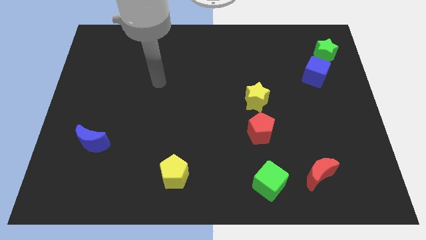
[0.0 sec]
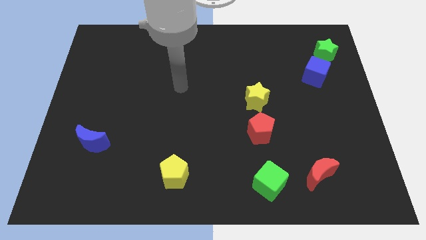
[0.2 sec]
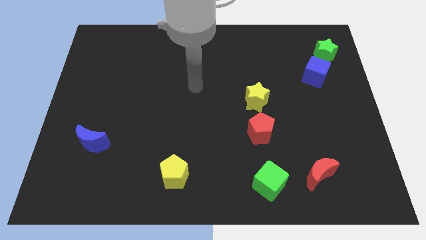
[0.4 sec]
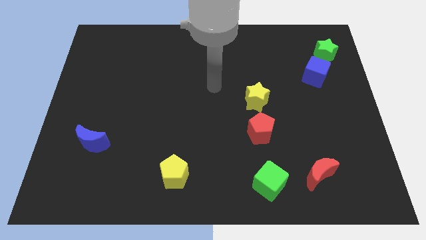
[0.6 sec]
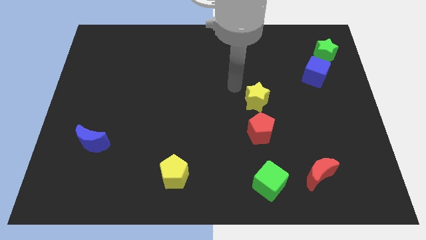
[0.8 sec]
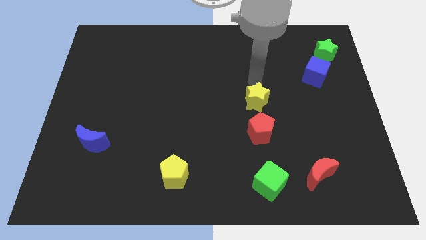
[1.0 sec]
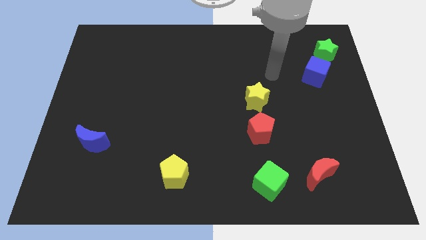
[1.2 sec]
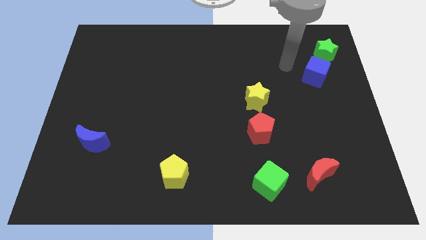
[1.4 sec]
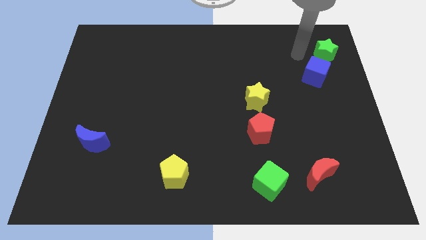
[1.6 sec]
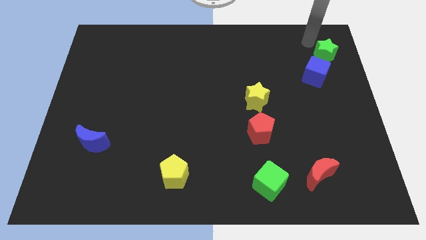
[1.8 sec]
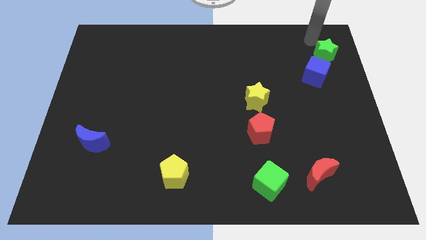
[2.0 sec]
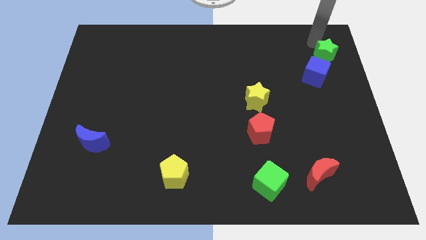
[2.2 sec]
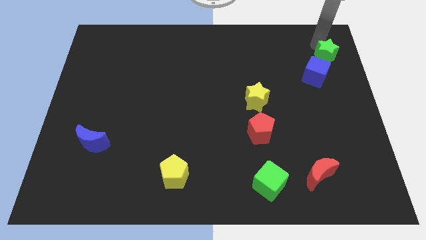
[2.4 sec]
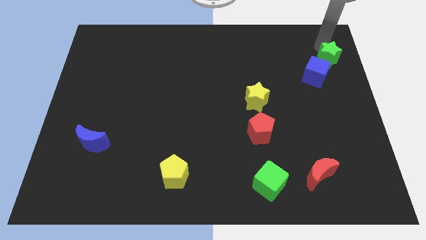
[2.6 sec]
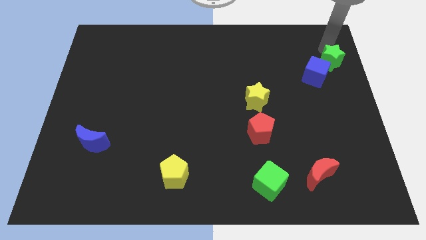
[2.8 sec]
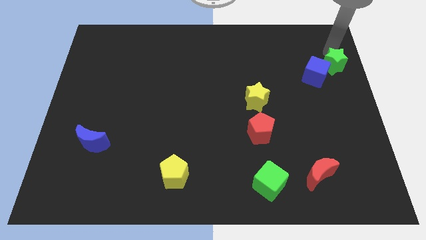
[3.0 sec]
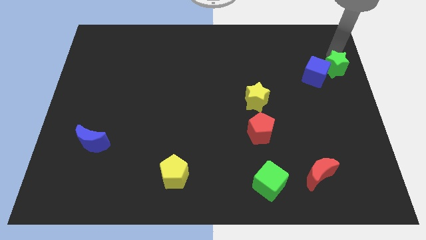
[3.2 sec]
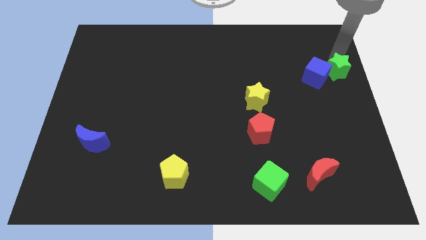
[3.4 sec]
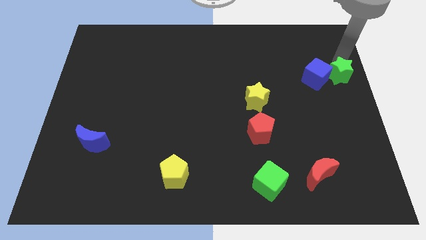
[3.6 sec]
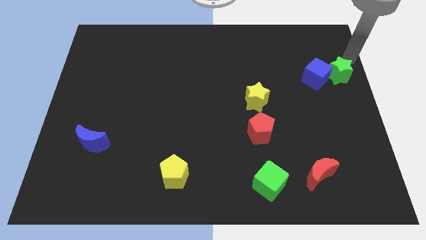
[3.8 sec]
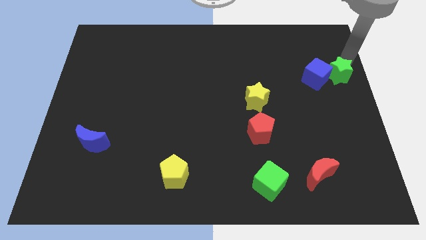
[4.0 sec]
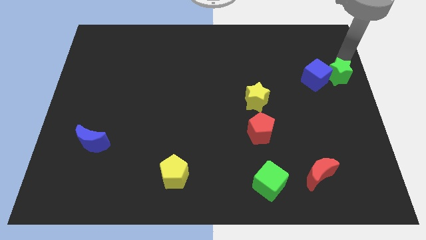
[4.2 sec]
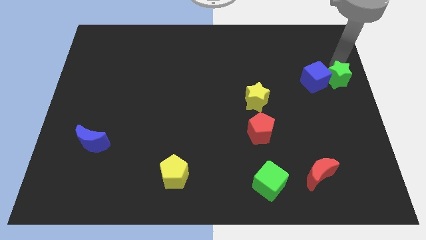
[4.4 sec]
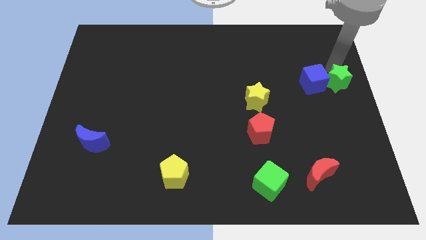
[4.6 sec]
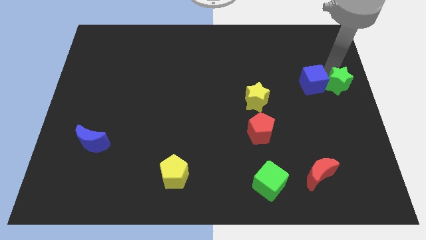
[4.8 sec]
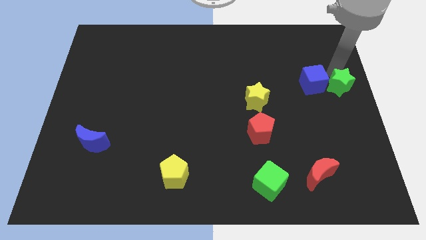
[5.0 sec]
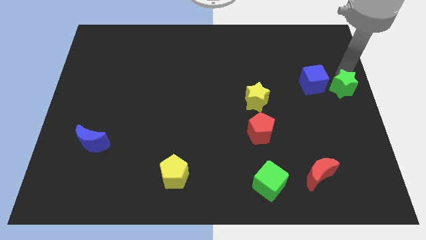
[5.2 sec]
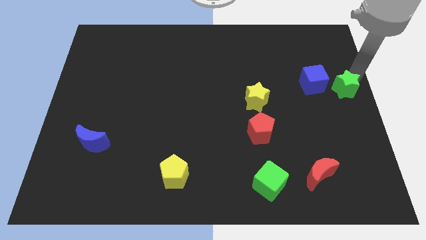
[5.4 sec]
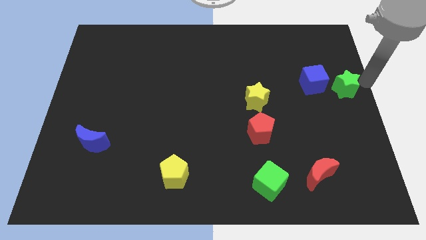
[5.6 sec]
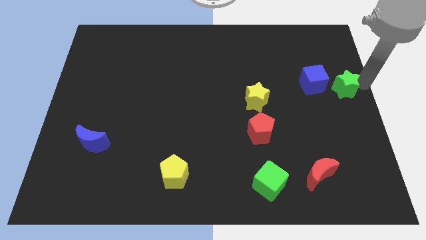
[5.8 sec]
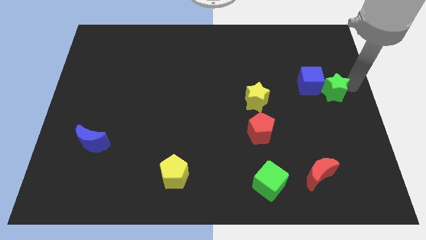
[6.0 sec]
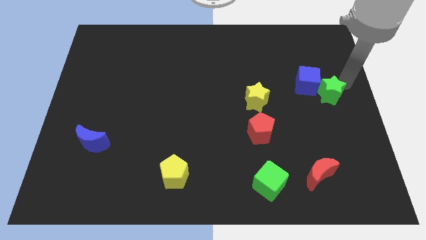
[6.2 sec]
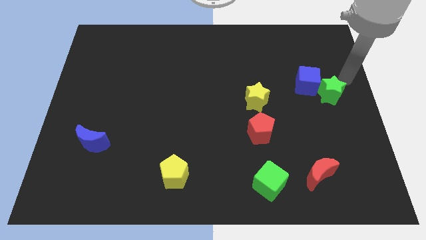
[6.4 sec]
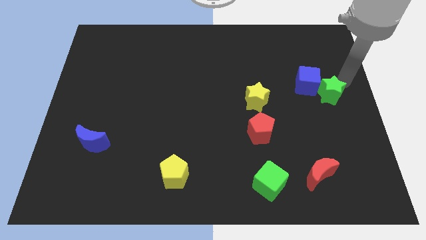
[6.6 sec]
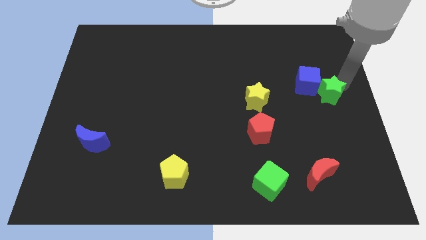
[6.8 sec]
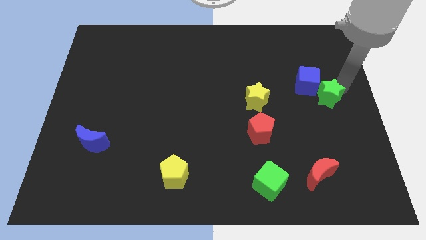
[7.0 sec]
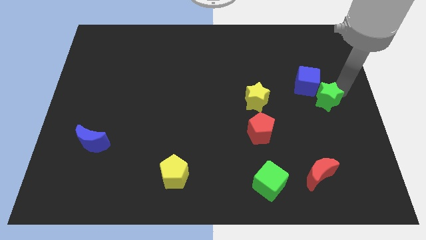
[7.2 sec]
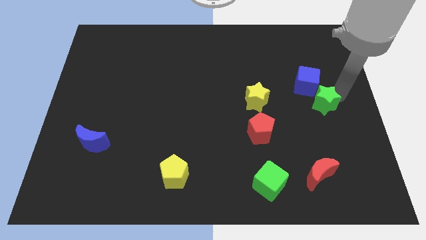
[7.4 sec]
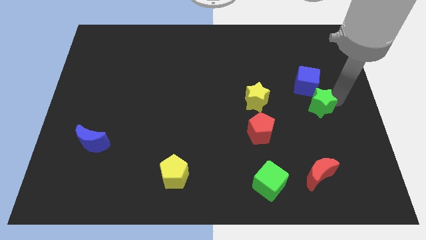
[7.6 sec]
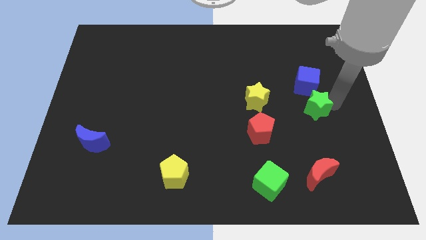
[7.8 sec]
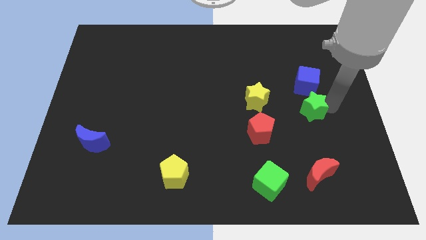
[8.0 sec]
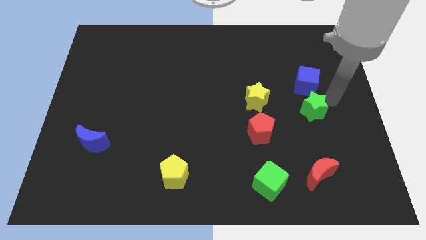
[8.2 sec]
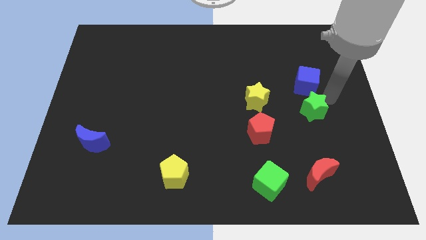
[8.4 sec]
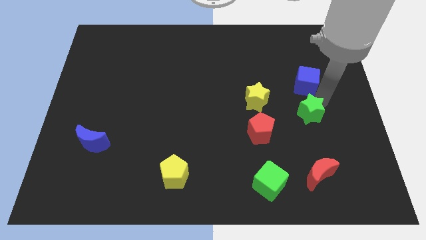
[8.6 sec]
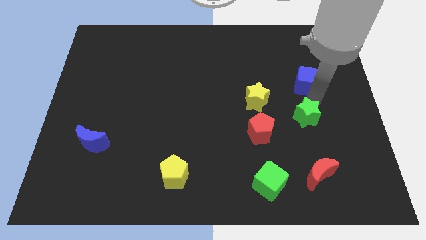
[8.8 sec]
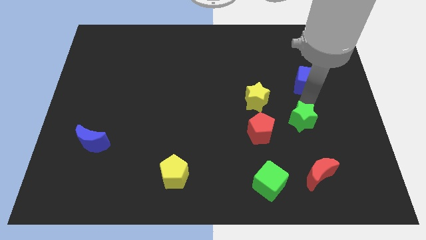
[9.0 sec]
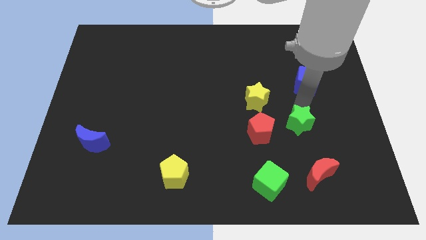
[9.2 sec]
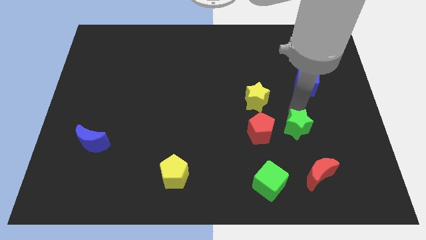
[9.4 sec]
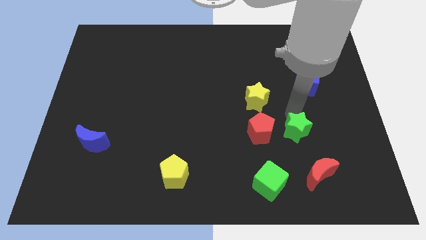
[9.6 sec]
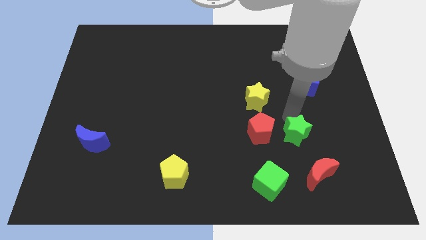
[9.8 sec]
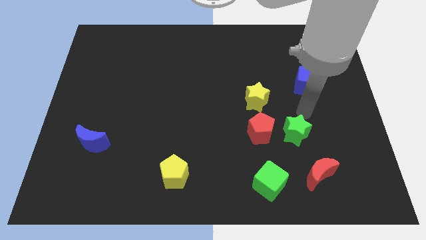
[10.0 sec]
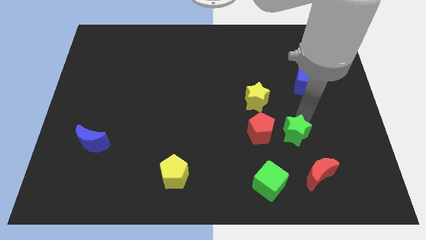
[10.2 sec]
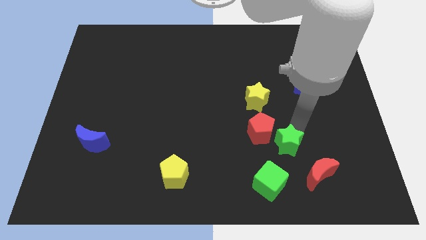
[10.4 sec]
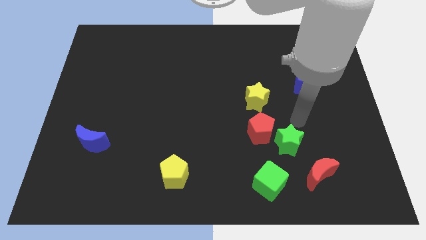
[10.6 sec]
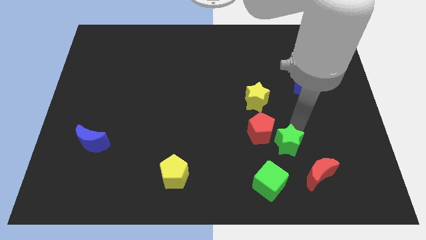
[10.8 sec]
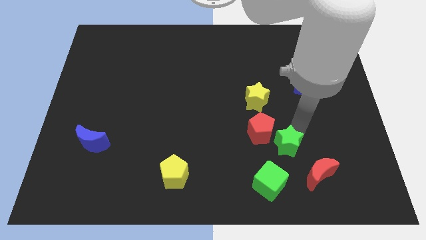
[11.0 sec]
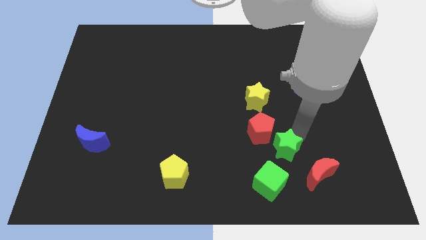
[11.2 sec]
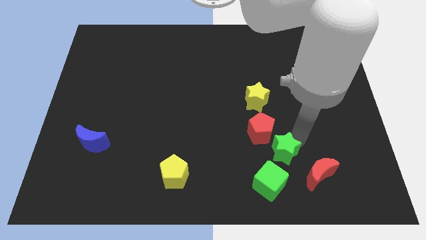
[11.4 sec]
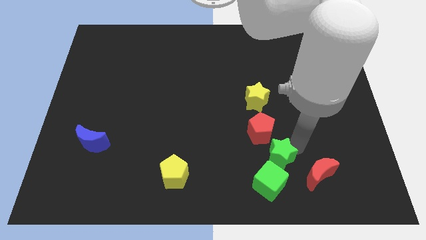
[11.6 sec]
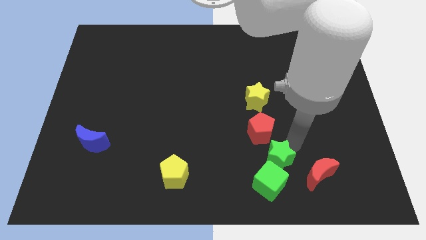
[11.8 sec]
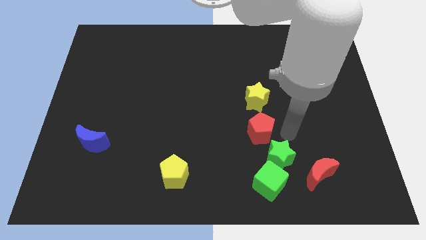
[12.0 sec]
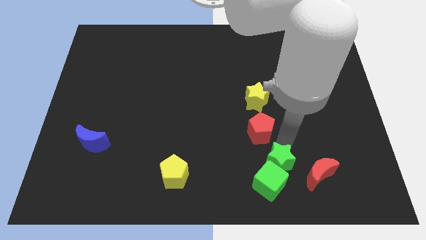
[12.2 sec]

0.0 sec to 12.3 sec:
put the green star to the green cube

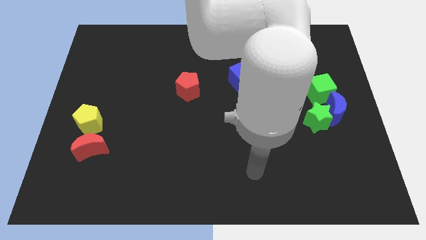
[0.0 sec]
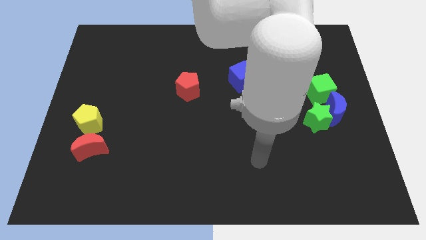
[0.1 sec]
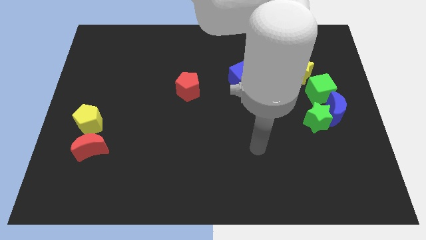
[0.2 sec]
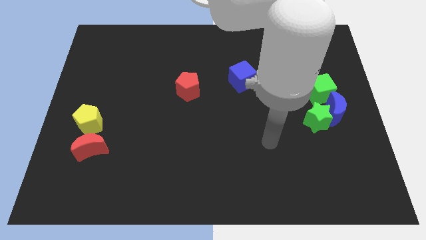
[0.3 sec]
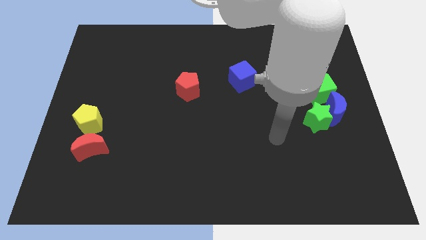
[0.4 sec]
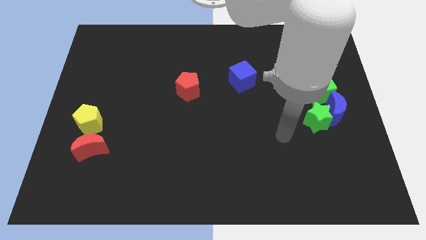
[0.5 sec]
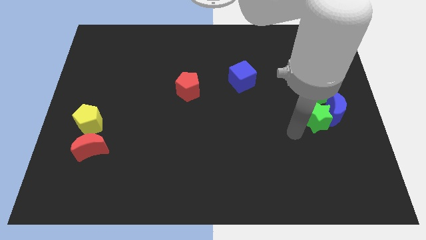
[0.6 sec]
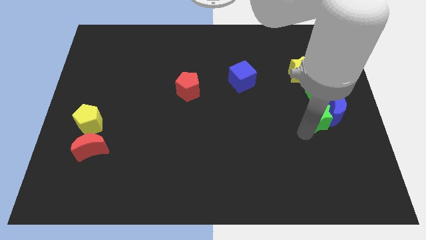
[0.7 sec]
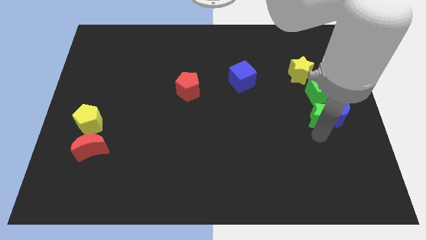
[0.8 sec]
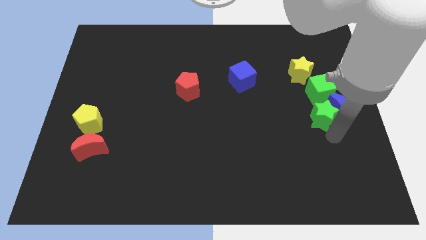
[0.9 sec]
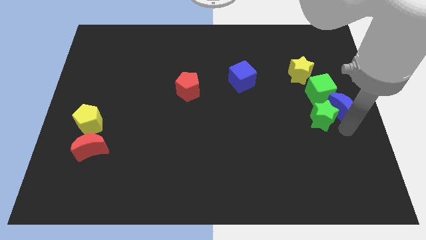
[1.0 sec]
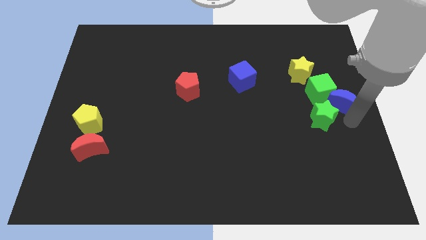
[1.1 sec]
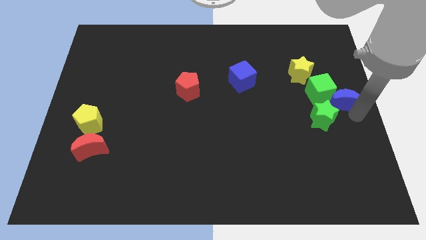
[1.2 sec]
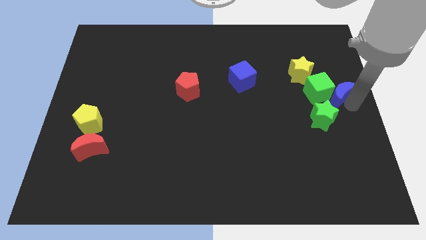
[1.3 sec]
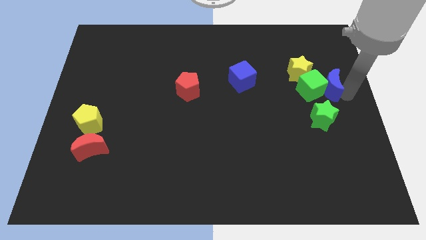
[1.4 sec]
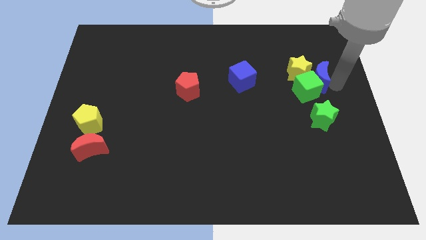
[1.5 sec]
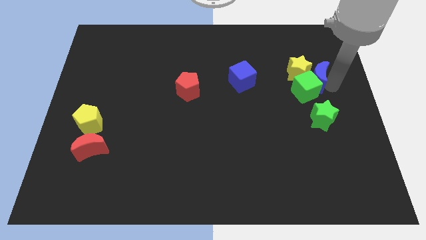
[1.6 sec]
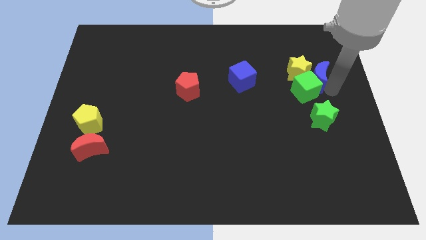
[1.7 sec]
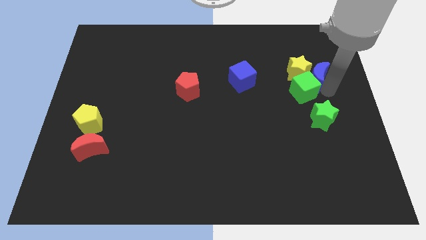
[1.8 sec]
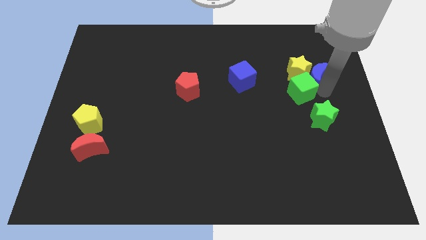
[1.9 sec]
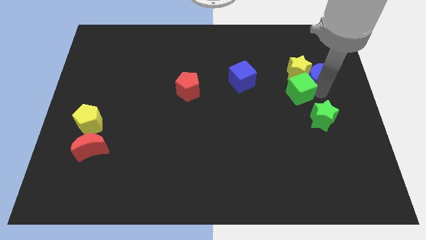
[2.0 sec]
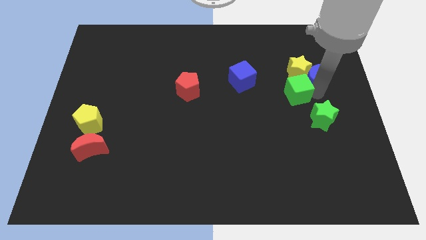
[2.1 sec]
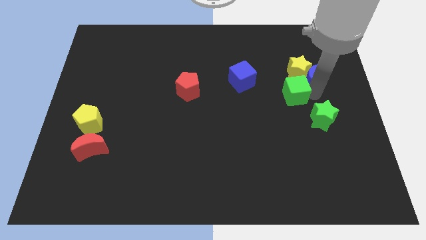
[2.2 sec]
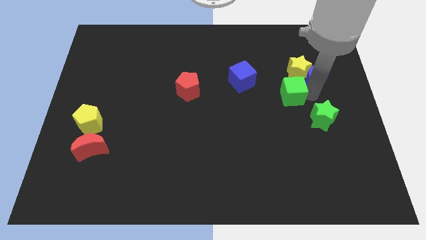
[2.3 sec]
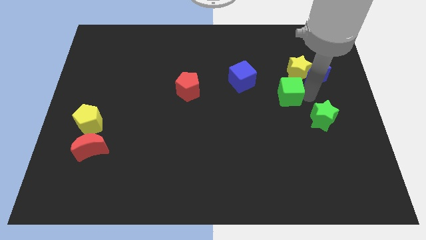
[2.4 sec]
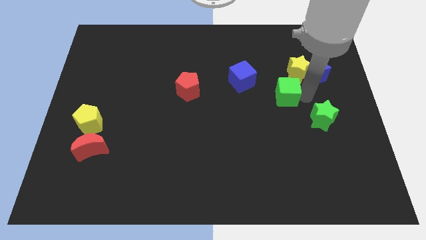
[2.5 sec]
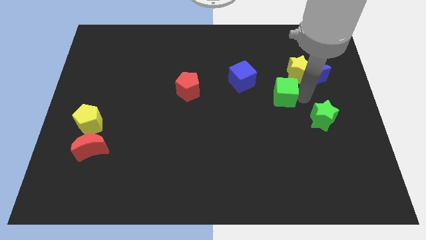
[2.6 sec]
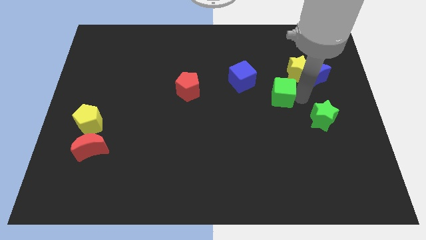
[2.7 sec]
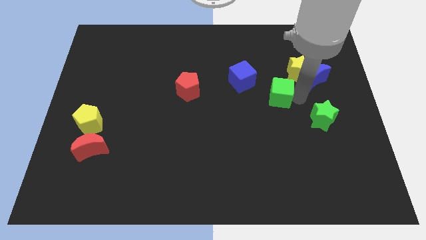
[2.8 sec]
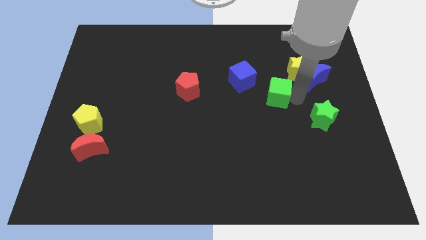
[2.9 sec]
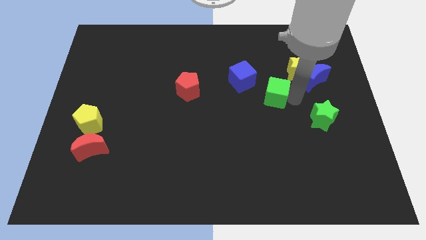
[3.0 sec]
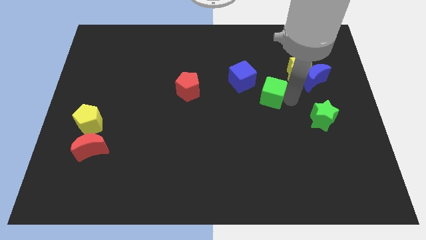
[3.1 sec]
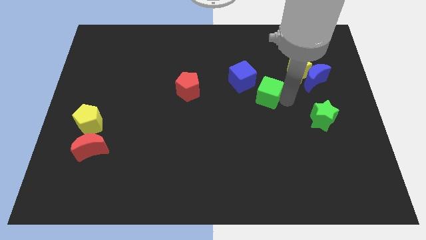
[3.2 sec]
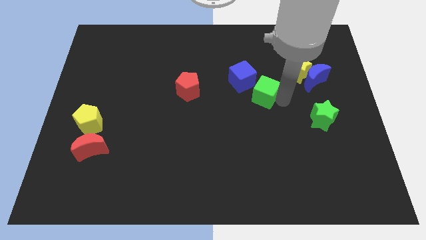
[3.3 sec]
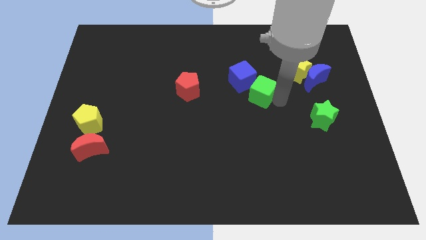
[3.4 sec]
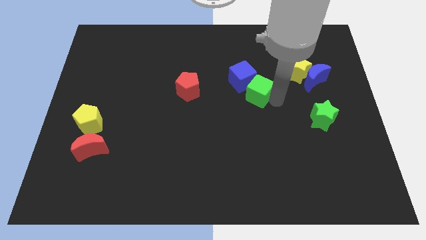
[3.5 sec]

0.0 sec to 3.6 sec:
push the green cube close to the blue cube
